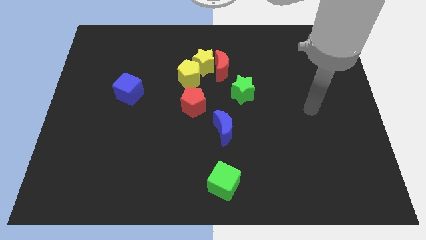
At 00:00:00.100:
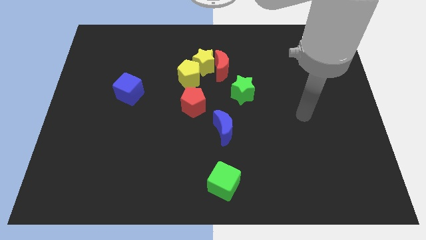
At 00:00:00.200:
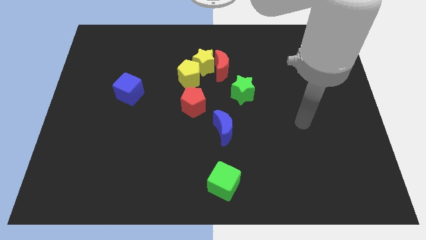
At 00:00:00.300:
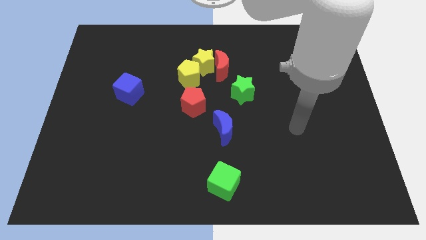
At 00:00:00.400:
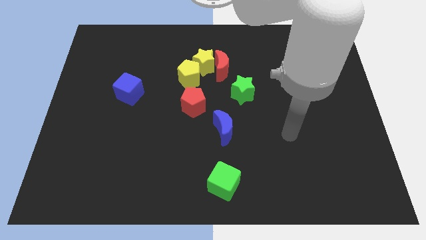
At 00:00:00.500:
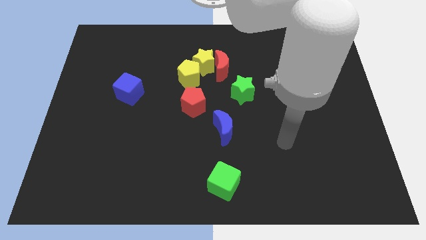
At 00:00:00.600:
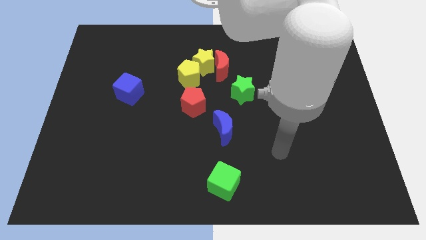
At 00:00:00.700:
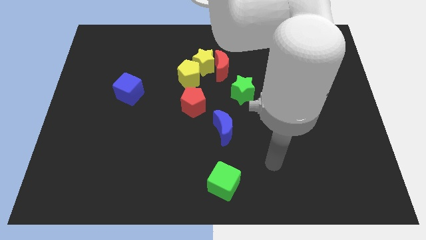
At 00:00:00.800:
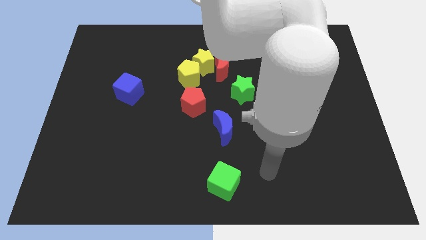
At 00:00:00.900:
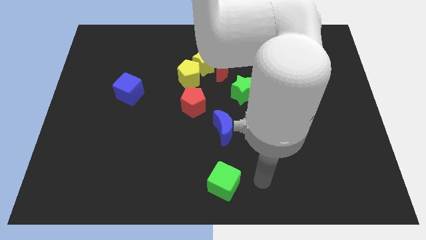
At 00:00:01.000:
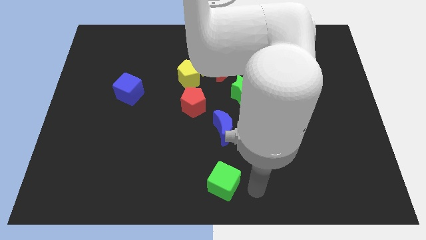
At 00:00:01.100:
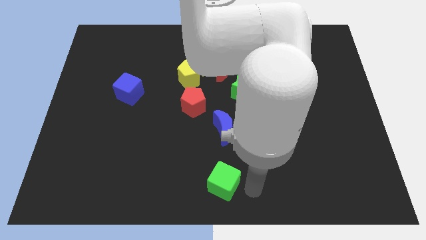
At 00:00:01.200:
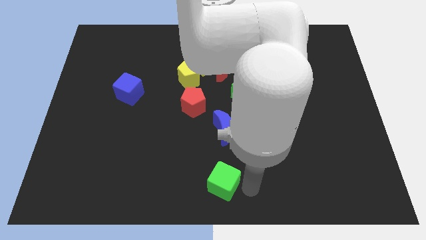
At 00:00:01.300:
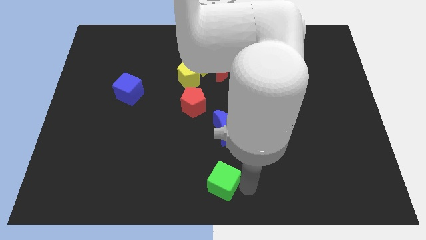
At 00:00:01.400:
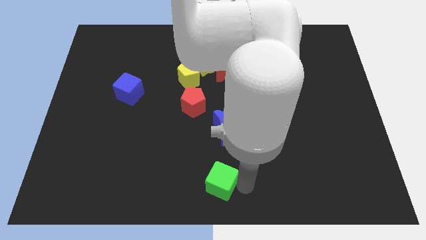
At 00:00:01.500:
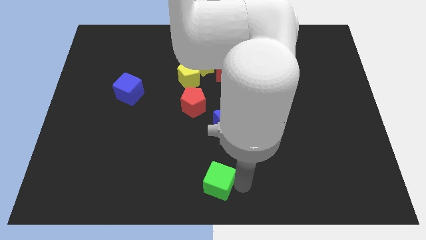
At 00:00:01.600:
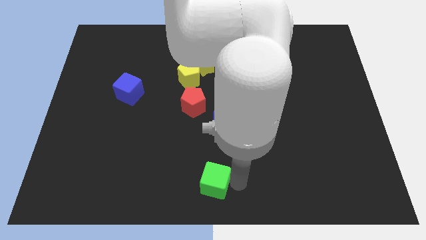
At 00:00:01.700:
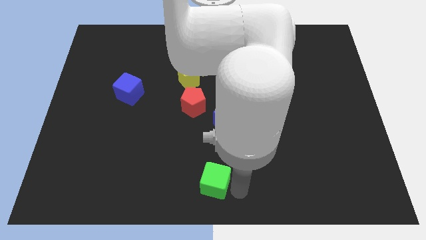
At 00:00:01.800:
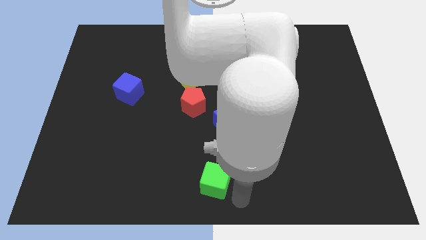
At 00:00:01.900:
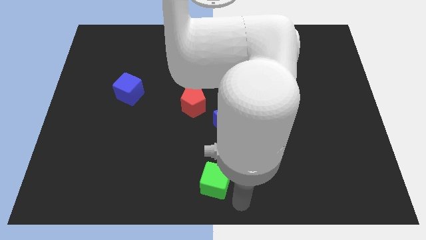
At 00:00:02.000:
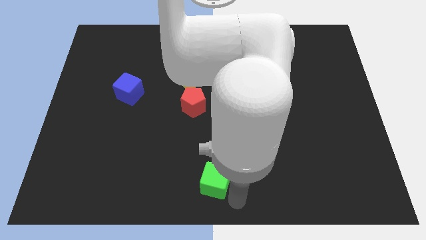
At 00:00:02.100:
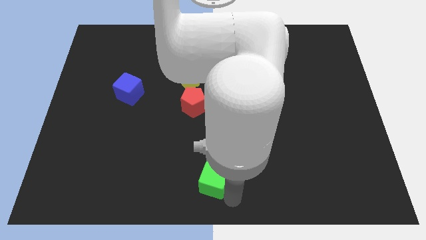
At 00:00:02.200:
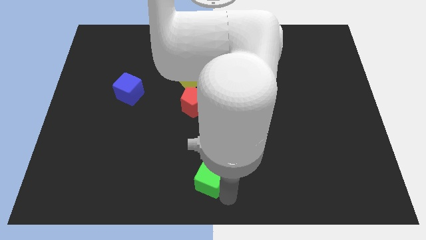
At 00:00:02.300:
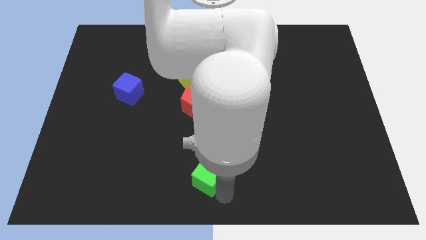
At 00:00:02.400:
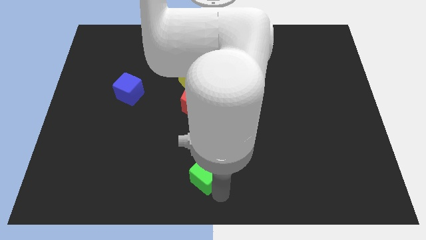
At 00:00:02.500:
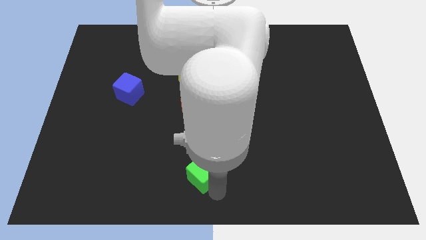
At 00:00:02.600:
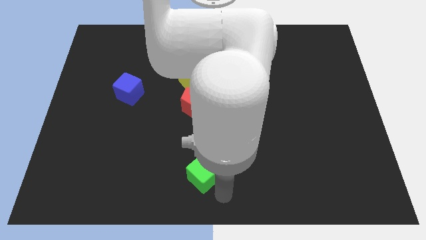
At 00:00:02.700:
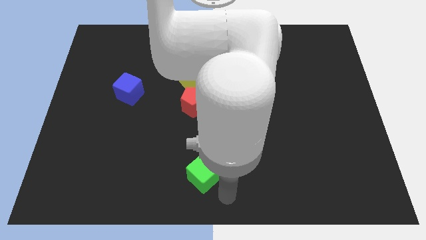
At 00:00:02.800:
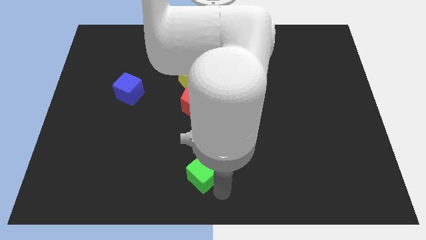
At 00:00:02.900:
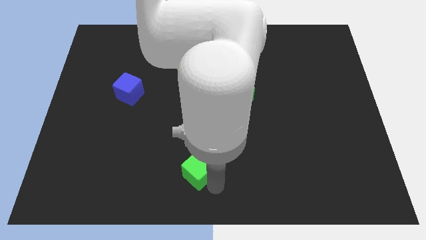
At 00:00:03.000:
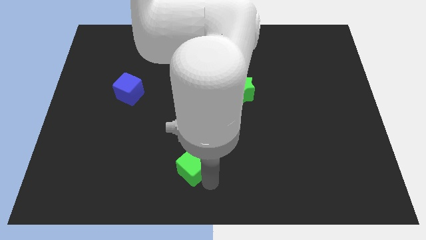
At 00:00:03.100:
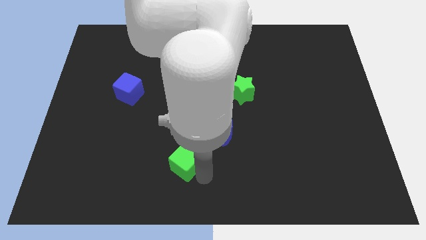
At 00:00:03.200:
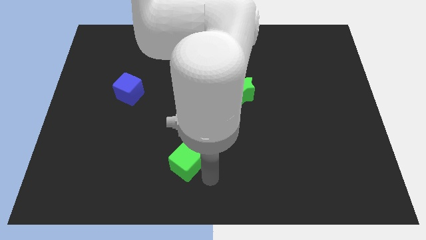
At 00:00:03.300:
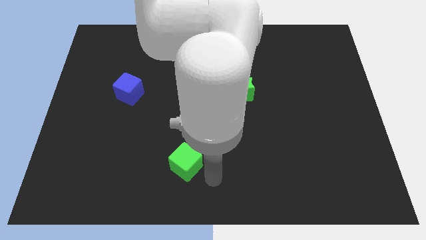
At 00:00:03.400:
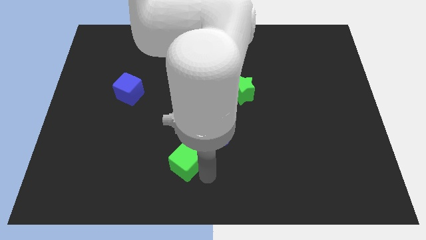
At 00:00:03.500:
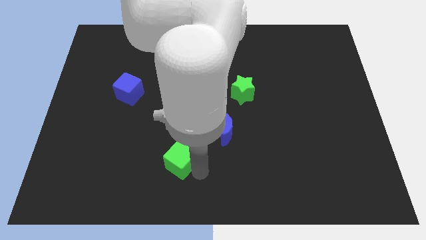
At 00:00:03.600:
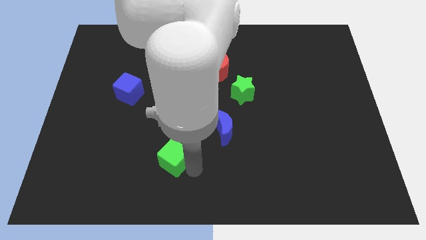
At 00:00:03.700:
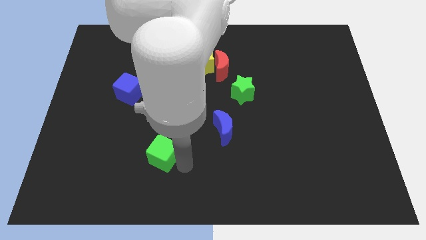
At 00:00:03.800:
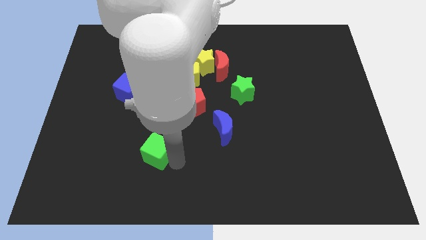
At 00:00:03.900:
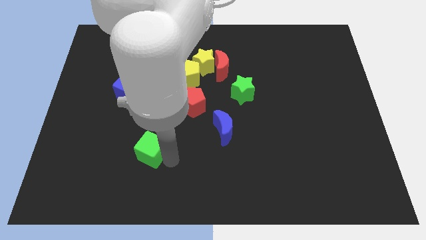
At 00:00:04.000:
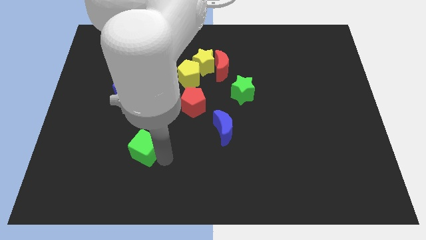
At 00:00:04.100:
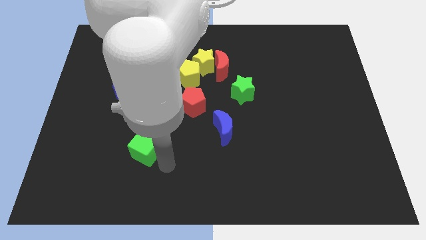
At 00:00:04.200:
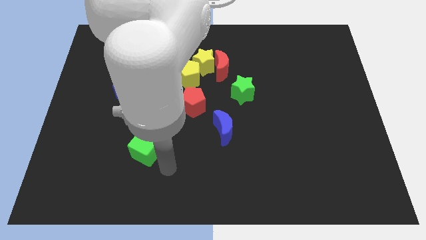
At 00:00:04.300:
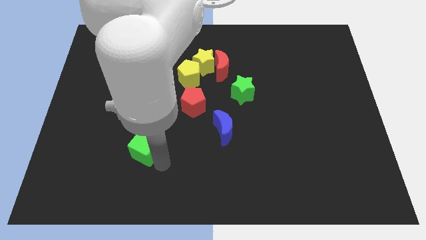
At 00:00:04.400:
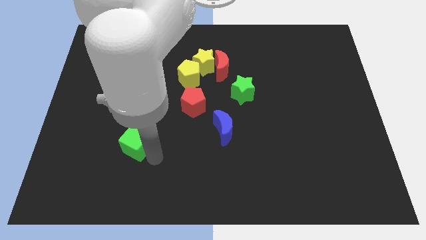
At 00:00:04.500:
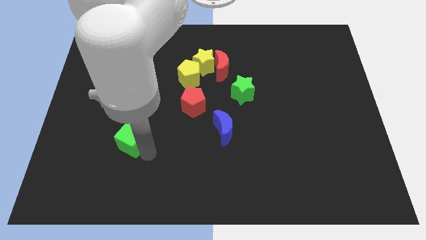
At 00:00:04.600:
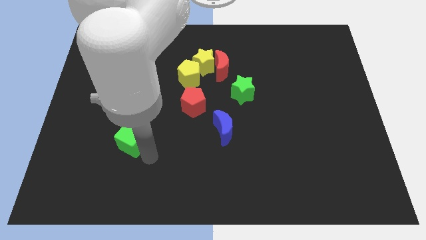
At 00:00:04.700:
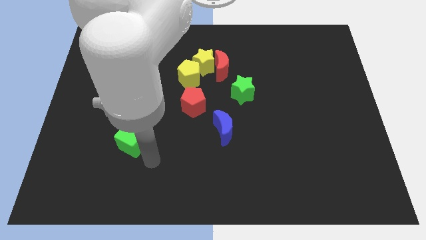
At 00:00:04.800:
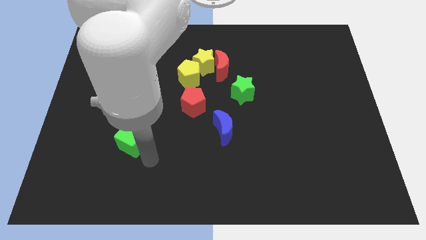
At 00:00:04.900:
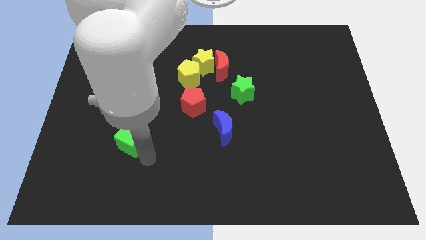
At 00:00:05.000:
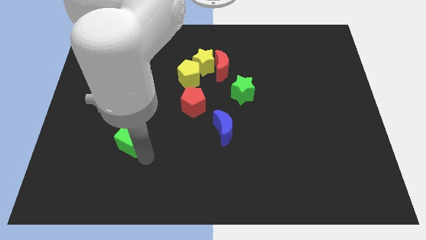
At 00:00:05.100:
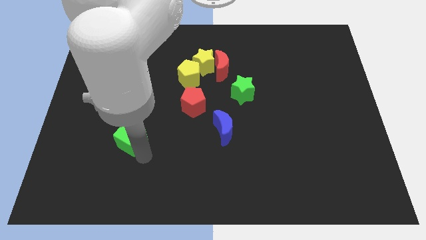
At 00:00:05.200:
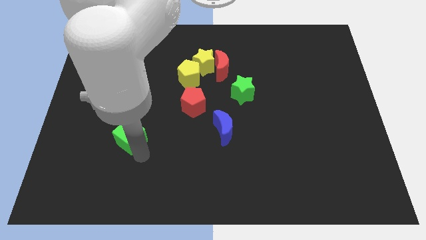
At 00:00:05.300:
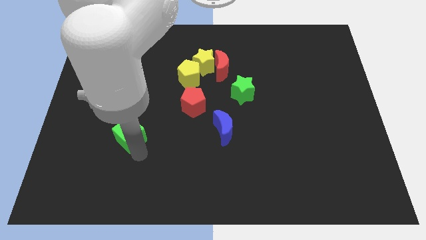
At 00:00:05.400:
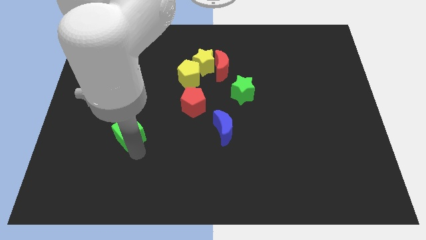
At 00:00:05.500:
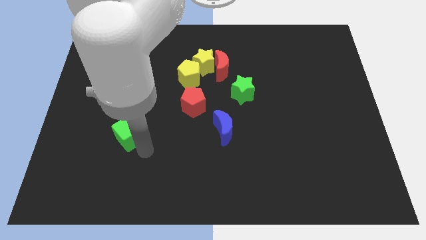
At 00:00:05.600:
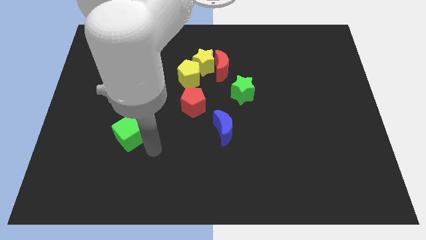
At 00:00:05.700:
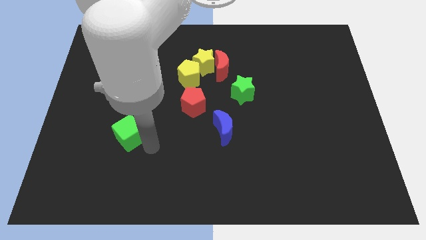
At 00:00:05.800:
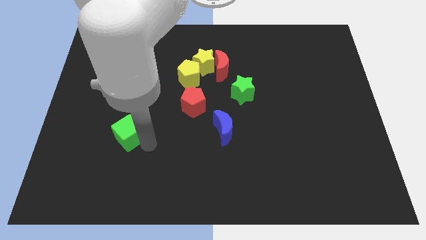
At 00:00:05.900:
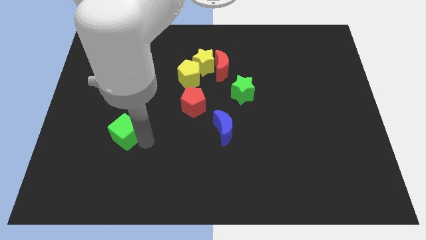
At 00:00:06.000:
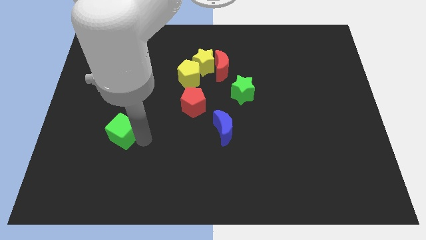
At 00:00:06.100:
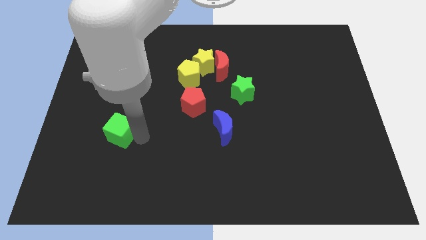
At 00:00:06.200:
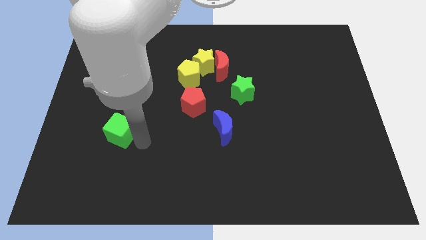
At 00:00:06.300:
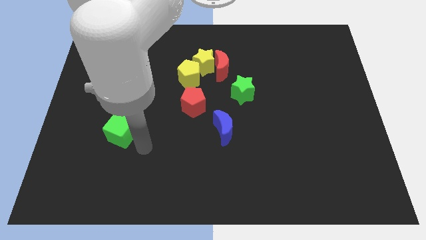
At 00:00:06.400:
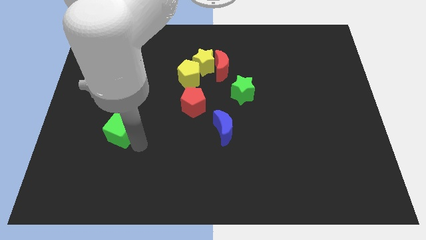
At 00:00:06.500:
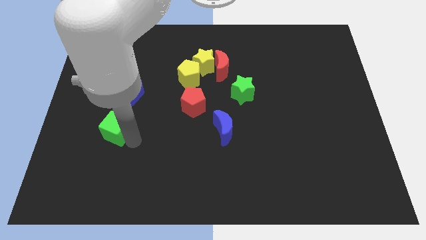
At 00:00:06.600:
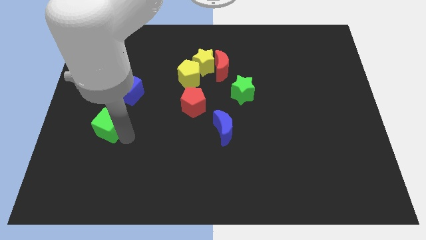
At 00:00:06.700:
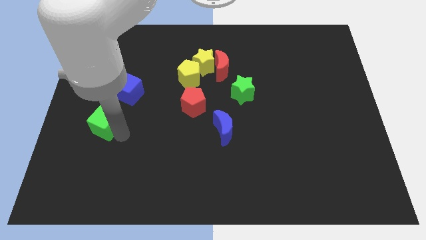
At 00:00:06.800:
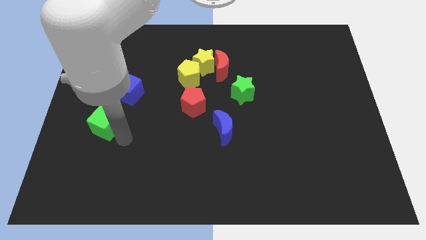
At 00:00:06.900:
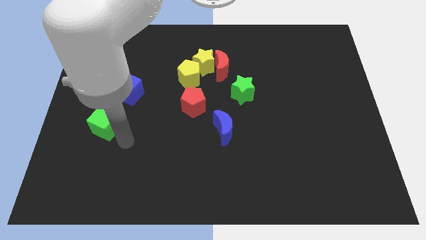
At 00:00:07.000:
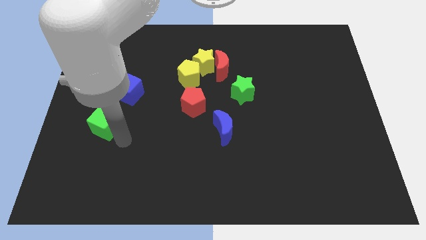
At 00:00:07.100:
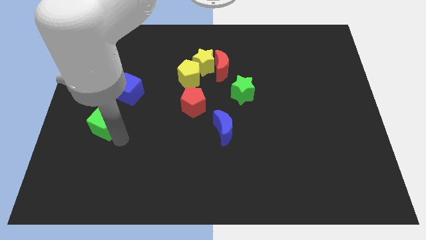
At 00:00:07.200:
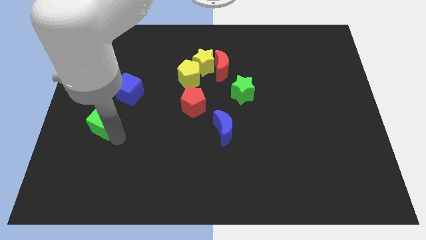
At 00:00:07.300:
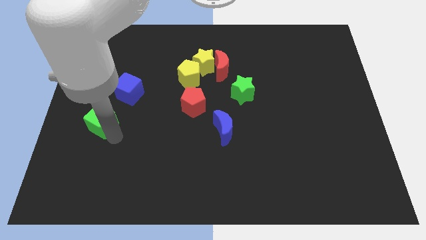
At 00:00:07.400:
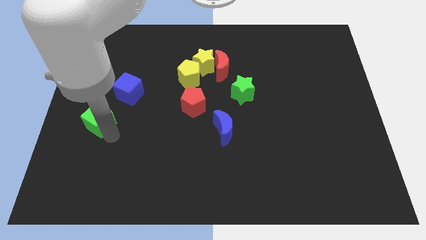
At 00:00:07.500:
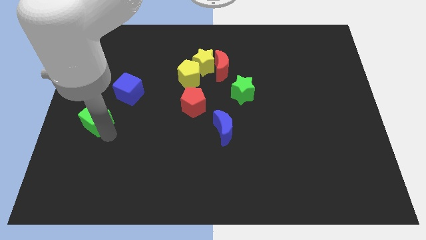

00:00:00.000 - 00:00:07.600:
push the green cube to the left side
